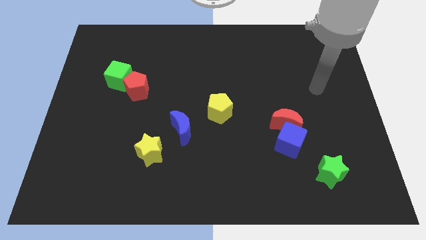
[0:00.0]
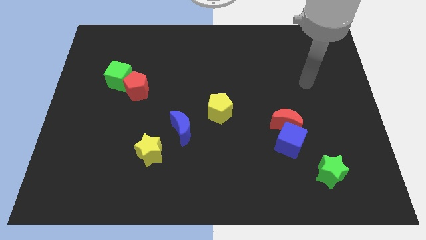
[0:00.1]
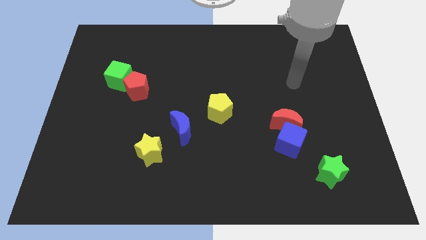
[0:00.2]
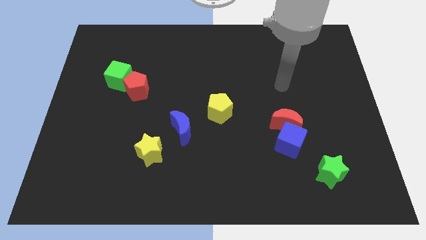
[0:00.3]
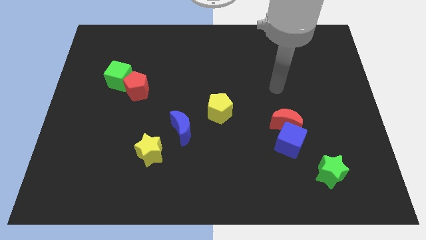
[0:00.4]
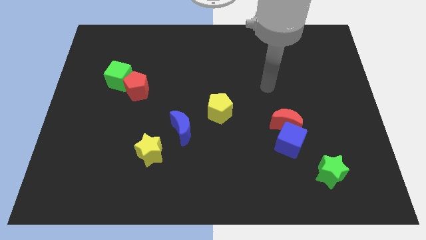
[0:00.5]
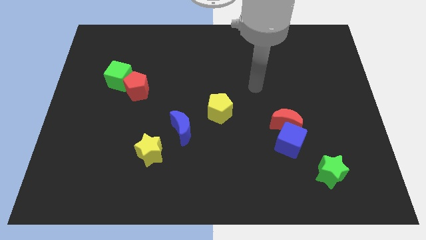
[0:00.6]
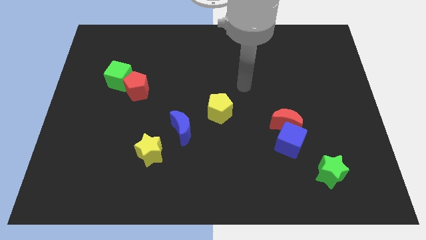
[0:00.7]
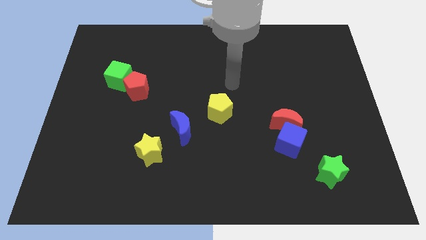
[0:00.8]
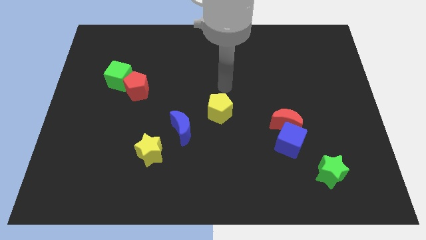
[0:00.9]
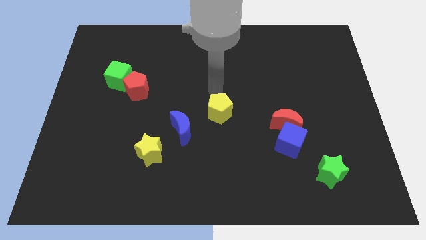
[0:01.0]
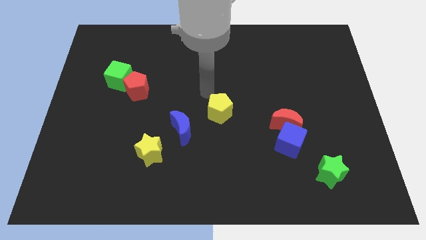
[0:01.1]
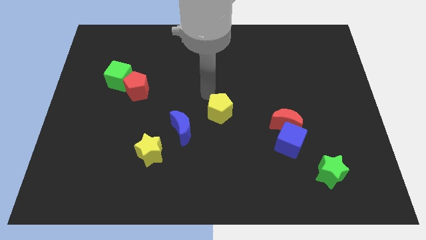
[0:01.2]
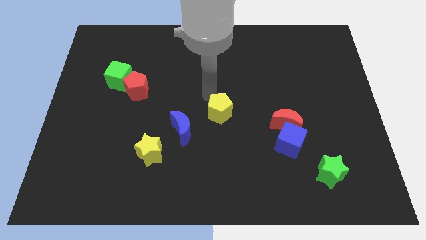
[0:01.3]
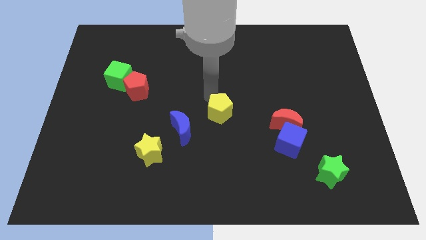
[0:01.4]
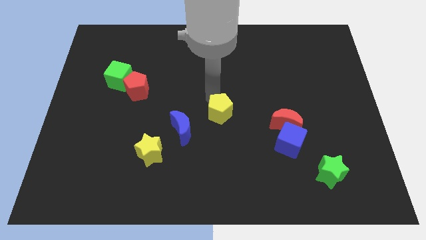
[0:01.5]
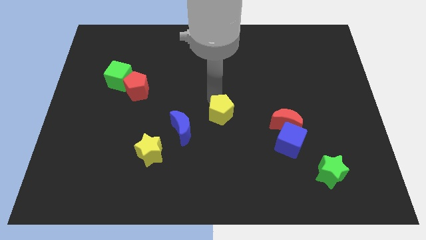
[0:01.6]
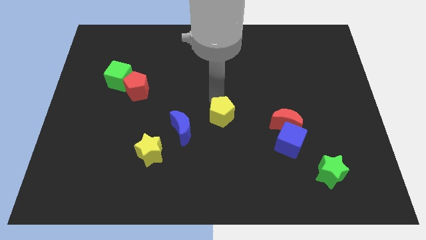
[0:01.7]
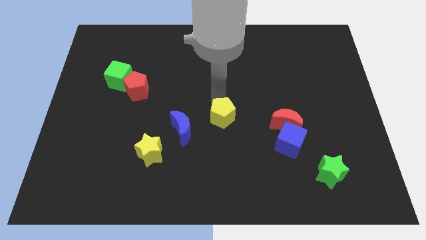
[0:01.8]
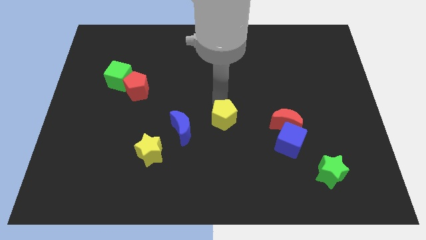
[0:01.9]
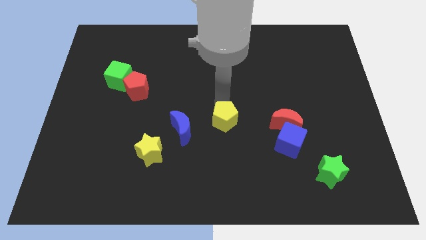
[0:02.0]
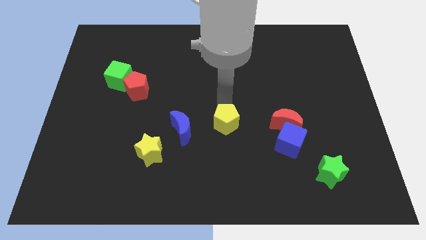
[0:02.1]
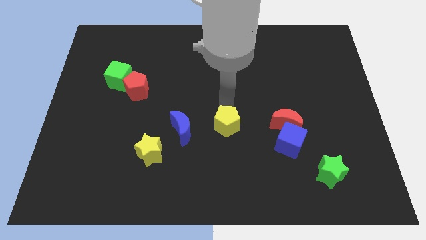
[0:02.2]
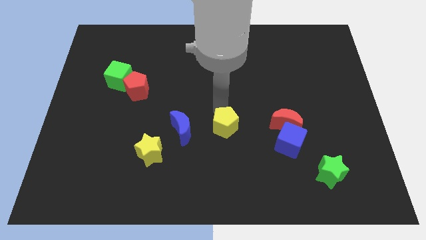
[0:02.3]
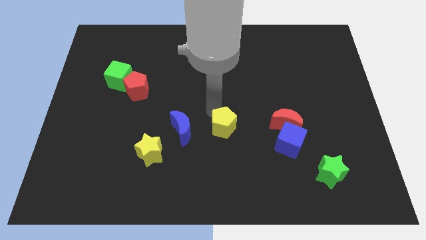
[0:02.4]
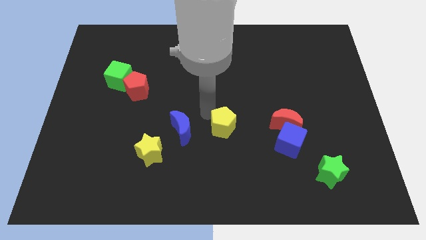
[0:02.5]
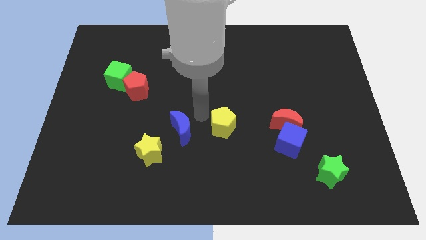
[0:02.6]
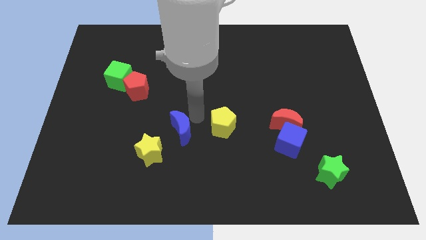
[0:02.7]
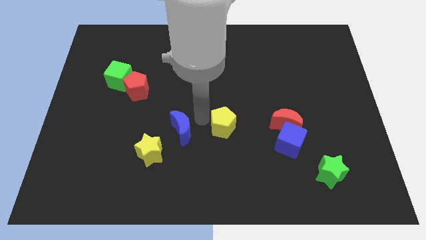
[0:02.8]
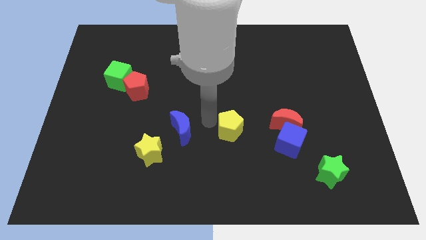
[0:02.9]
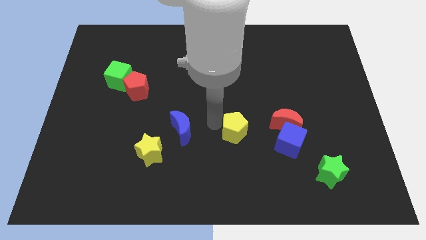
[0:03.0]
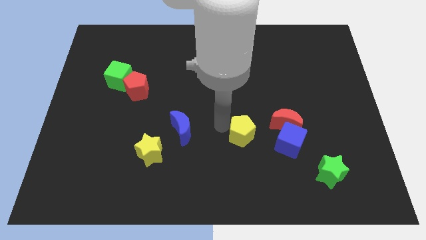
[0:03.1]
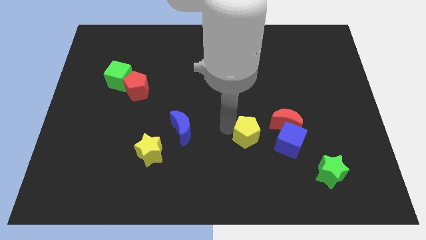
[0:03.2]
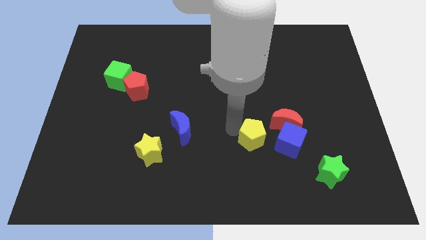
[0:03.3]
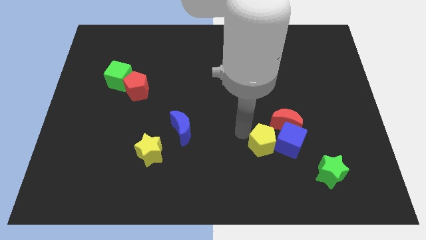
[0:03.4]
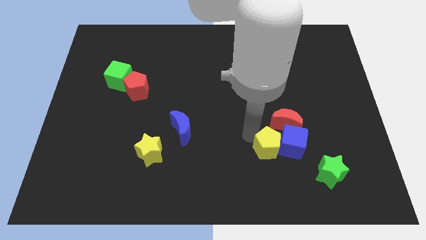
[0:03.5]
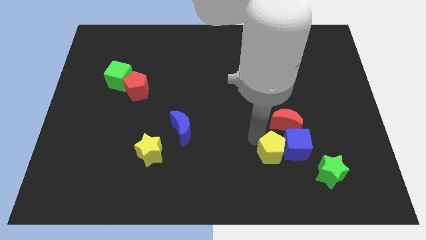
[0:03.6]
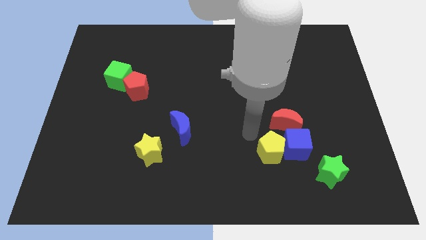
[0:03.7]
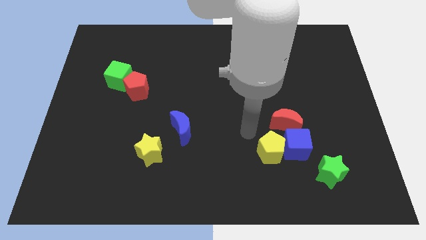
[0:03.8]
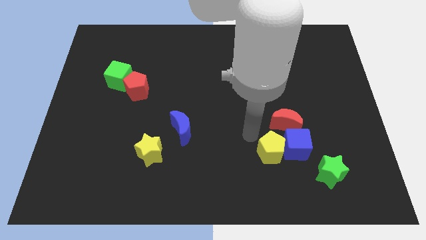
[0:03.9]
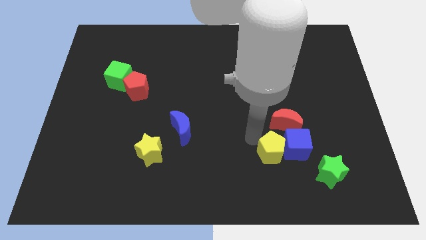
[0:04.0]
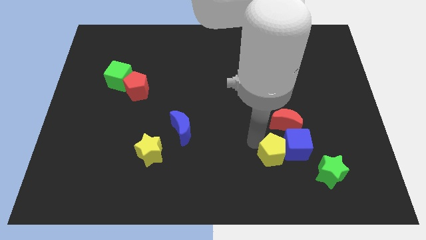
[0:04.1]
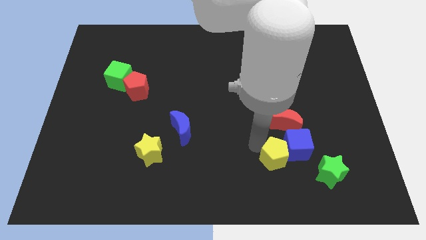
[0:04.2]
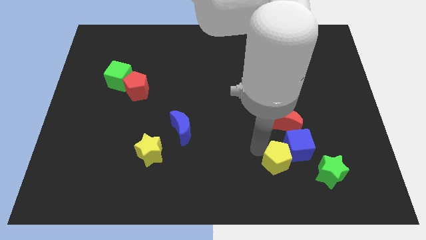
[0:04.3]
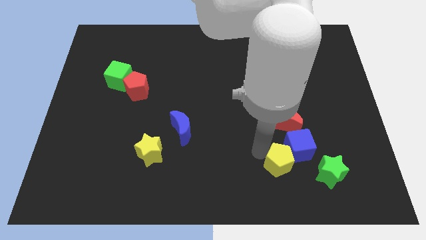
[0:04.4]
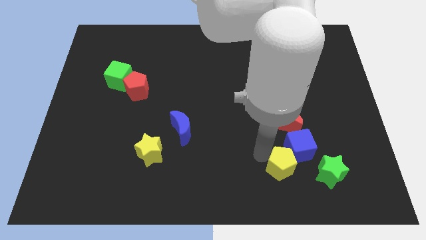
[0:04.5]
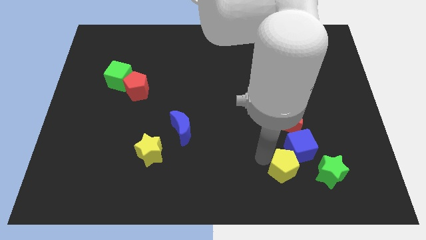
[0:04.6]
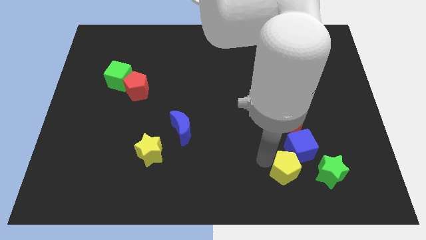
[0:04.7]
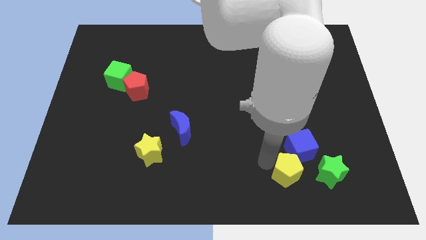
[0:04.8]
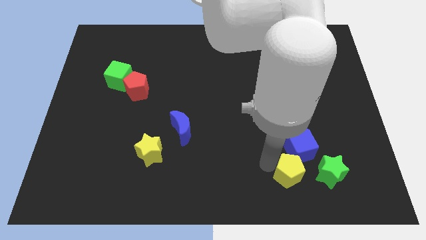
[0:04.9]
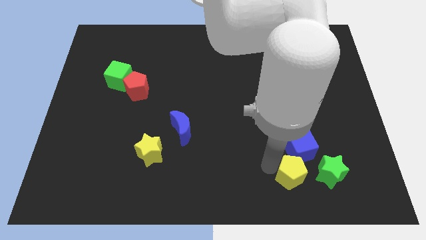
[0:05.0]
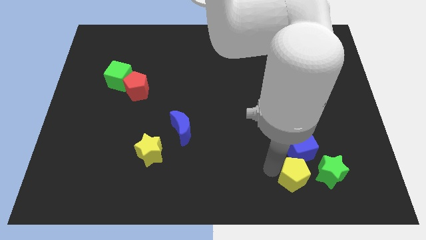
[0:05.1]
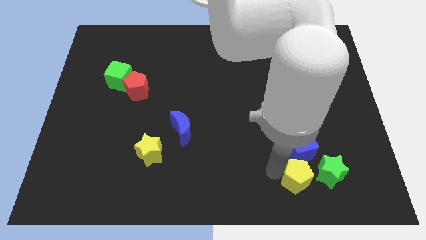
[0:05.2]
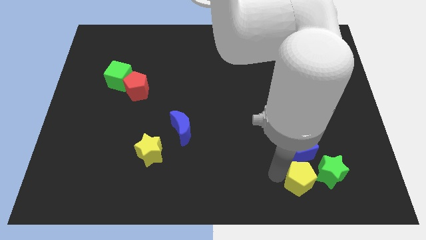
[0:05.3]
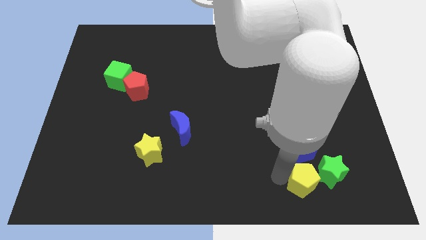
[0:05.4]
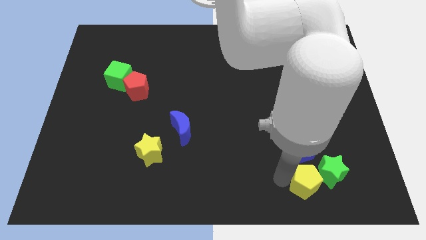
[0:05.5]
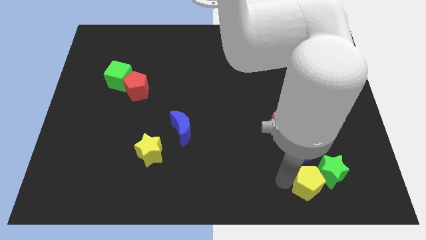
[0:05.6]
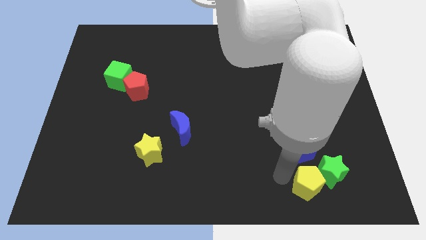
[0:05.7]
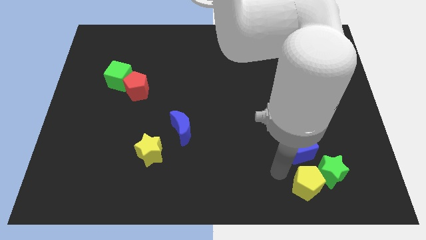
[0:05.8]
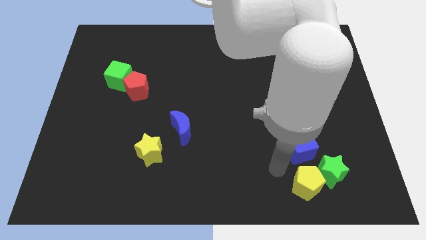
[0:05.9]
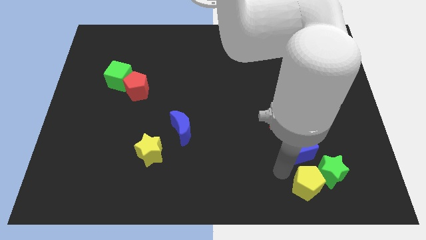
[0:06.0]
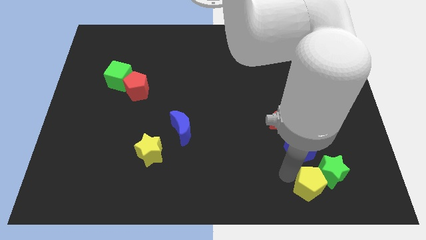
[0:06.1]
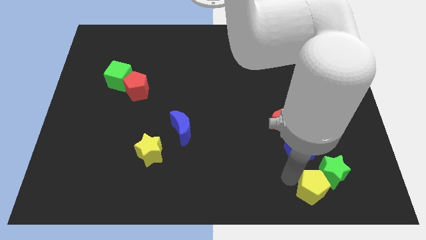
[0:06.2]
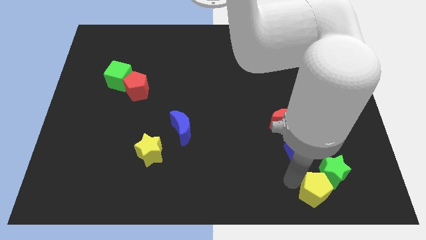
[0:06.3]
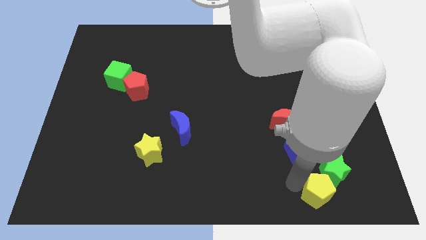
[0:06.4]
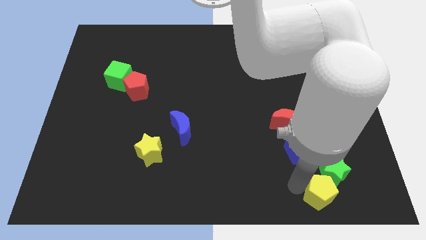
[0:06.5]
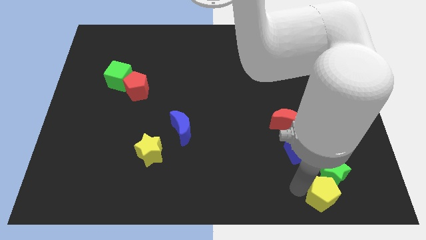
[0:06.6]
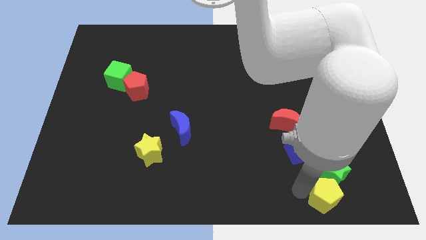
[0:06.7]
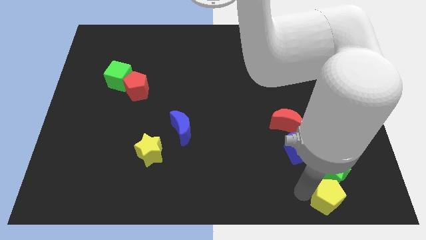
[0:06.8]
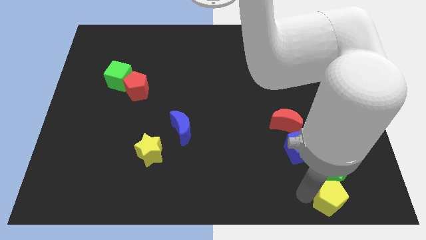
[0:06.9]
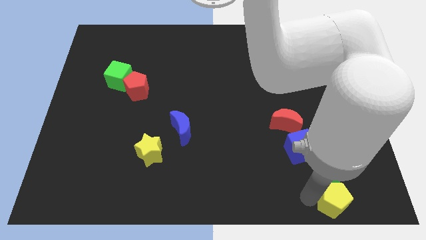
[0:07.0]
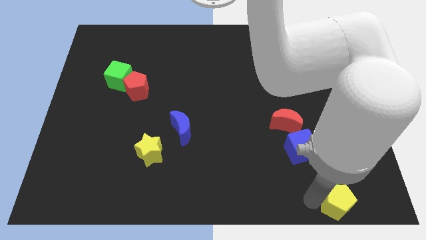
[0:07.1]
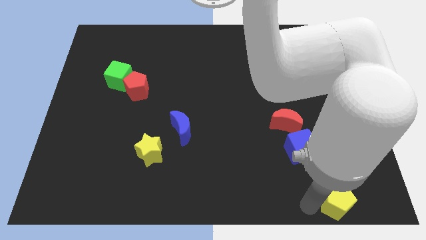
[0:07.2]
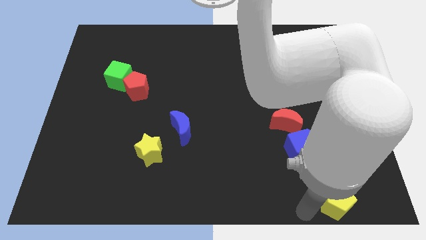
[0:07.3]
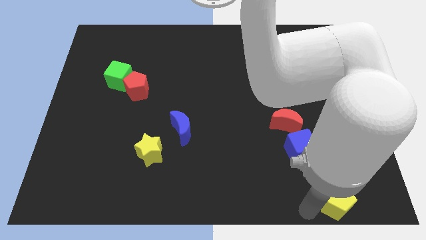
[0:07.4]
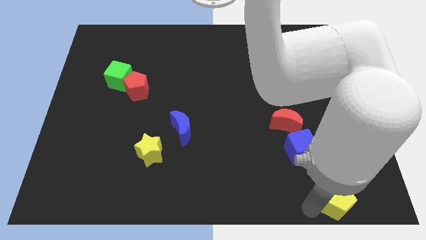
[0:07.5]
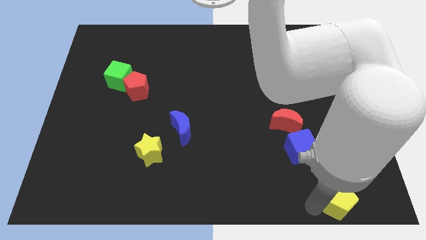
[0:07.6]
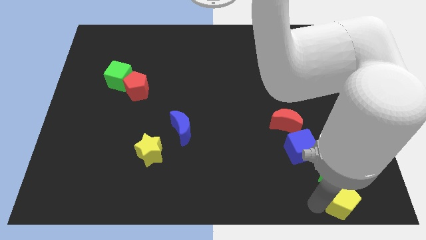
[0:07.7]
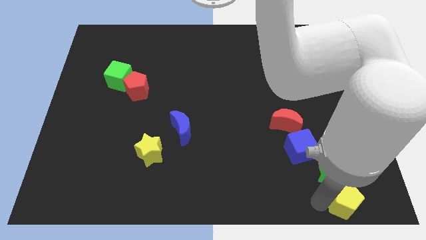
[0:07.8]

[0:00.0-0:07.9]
move the yellow pentagon to the bottom right
